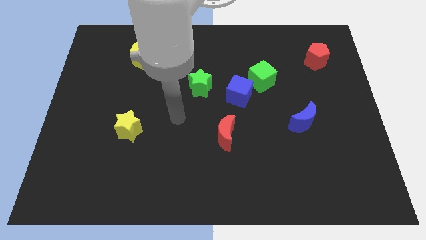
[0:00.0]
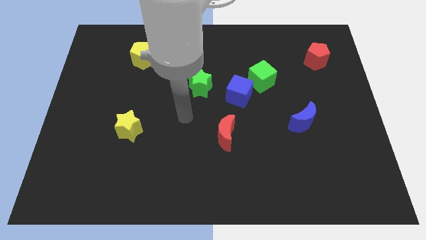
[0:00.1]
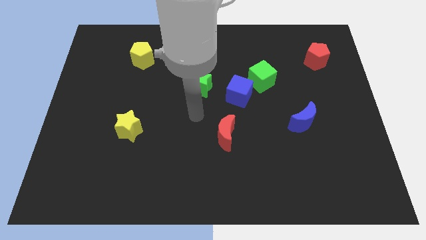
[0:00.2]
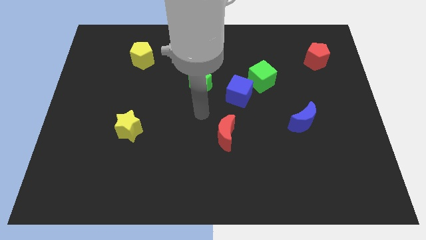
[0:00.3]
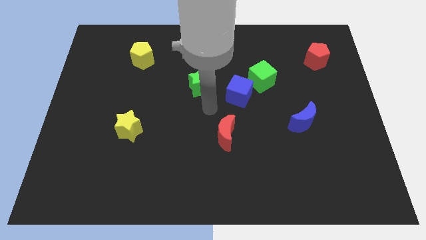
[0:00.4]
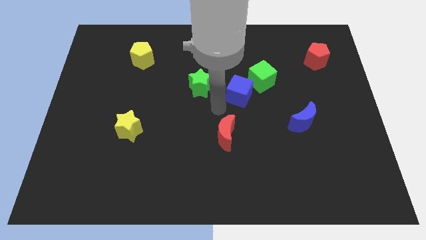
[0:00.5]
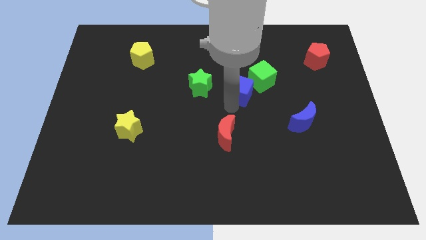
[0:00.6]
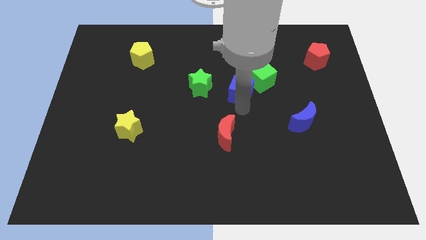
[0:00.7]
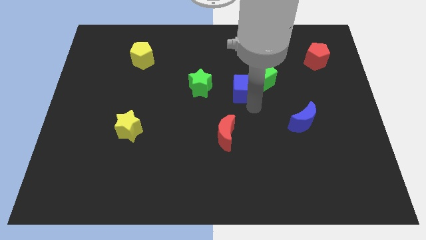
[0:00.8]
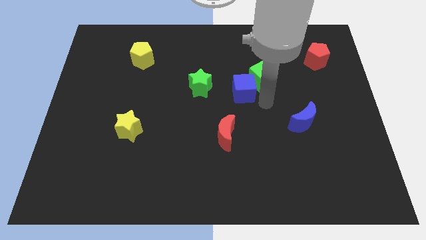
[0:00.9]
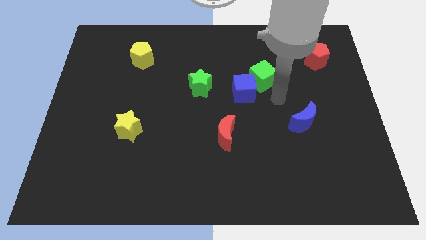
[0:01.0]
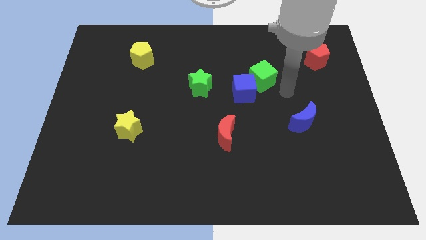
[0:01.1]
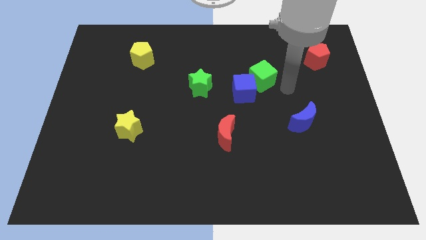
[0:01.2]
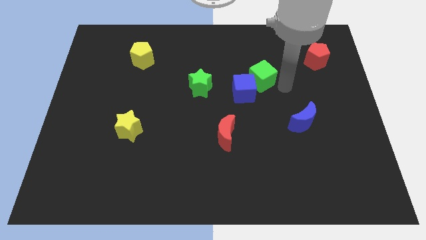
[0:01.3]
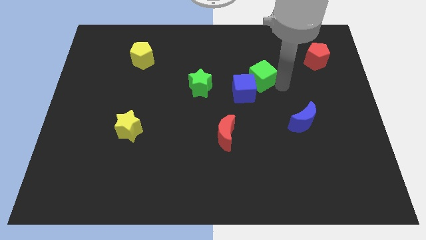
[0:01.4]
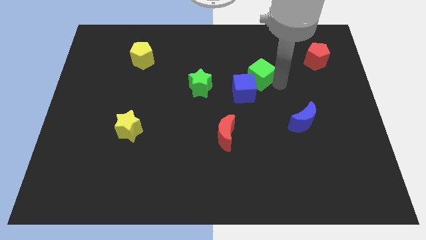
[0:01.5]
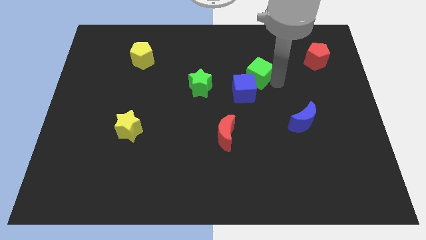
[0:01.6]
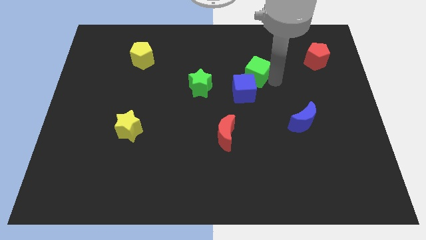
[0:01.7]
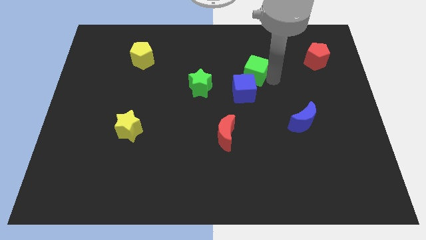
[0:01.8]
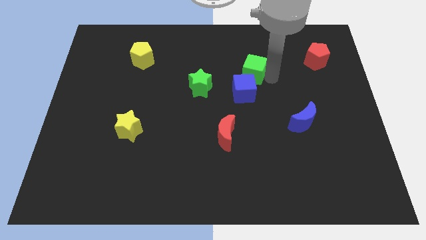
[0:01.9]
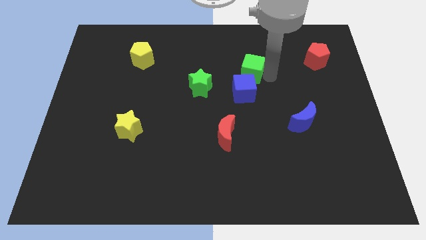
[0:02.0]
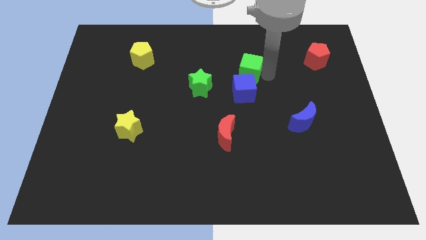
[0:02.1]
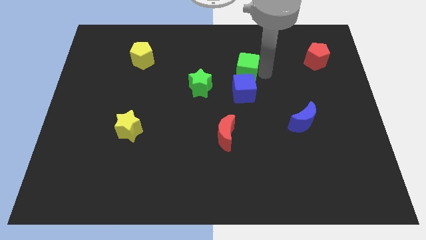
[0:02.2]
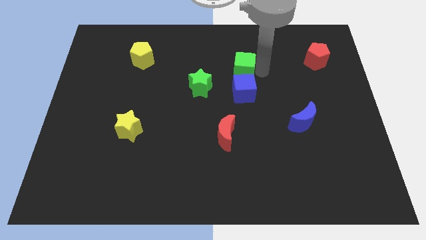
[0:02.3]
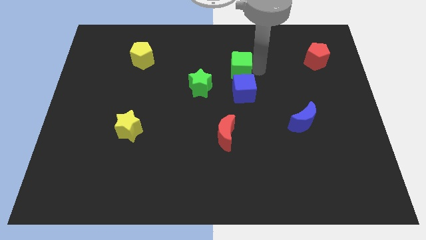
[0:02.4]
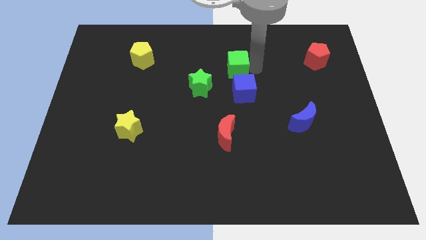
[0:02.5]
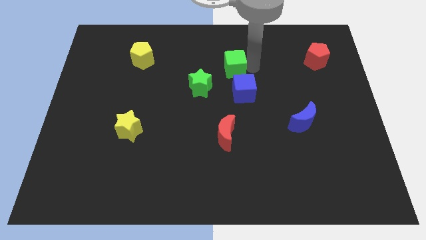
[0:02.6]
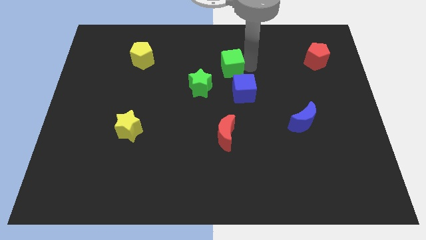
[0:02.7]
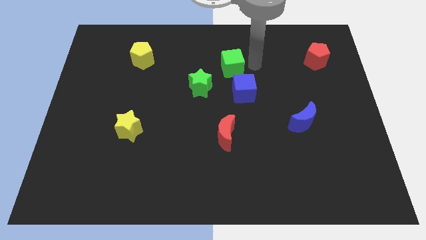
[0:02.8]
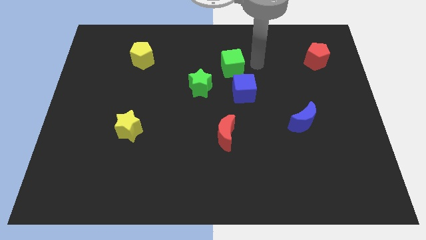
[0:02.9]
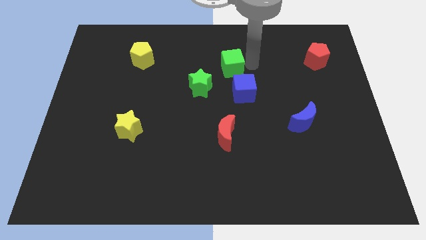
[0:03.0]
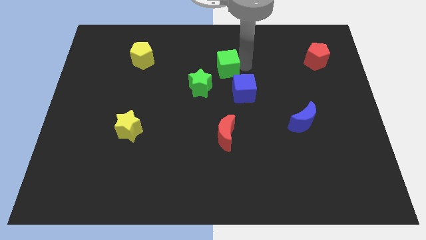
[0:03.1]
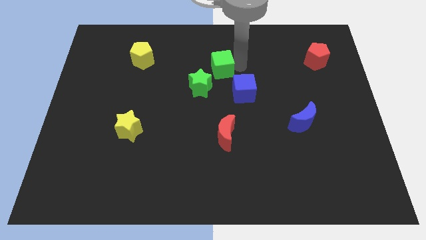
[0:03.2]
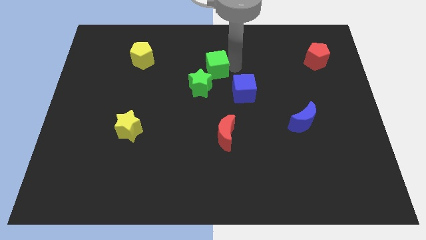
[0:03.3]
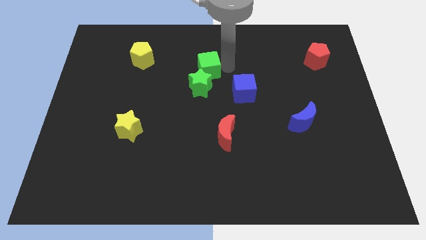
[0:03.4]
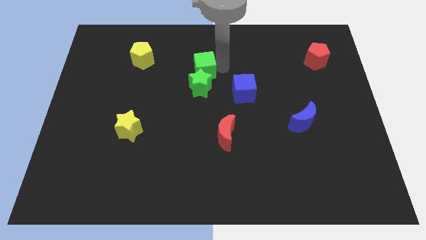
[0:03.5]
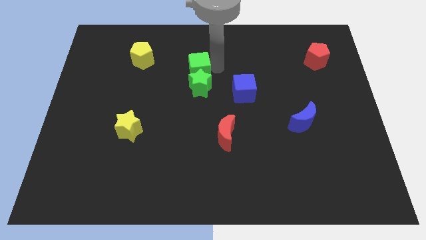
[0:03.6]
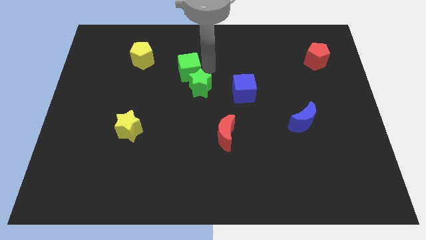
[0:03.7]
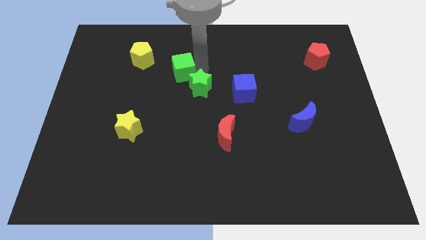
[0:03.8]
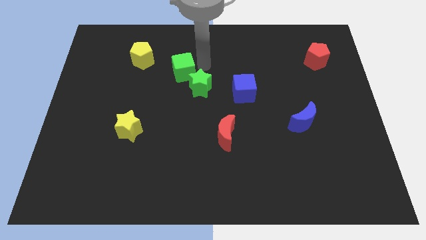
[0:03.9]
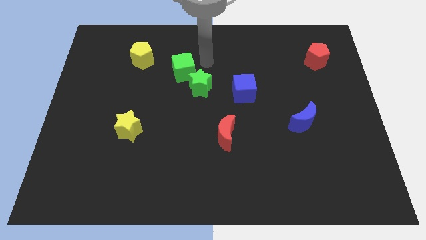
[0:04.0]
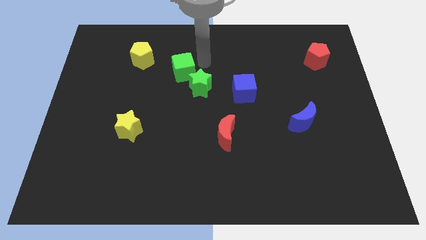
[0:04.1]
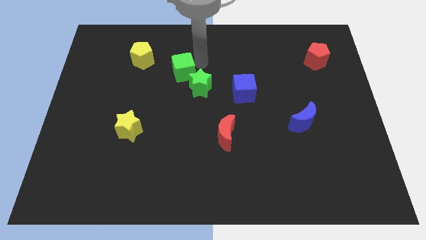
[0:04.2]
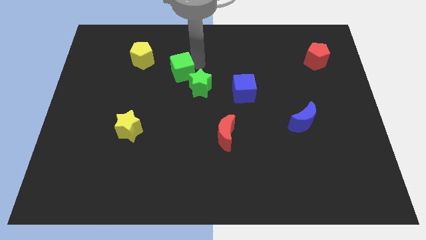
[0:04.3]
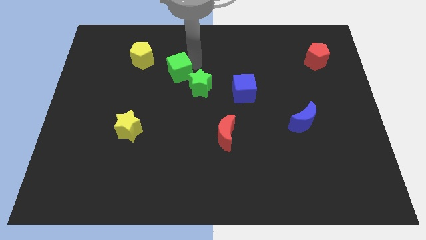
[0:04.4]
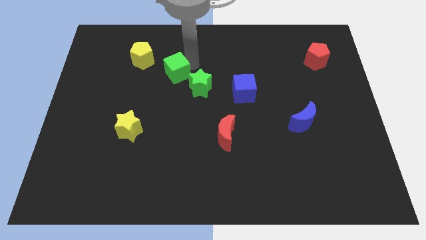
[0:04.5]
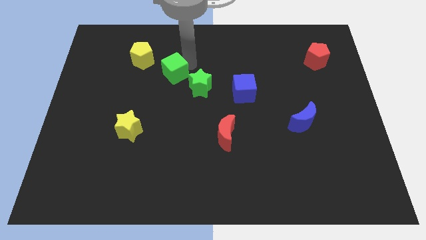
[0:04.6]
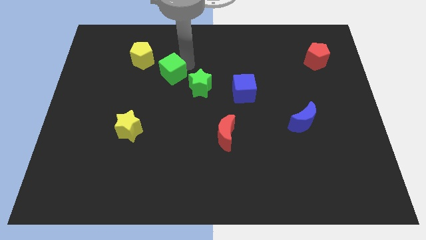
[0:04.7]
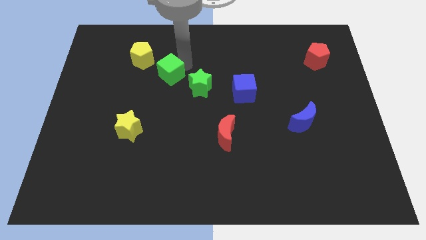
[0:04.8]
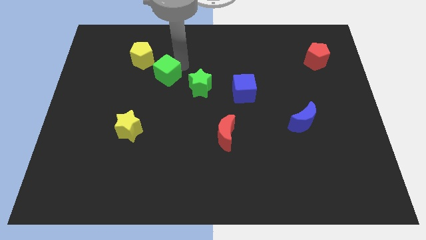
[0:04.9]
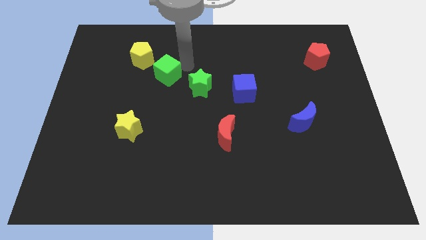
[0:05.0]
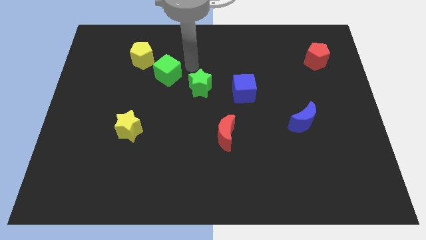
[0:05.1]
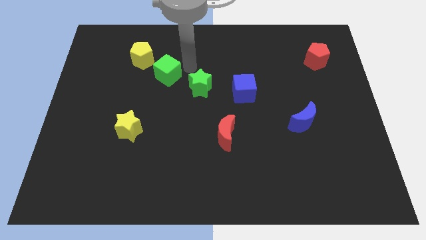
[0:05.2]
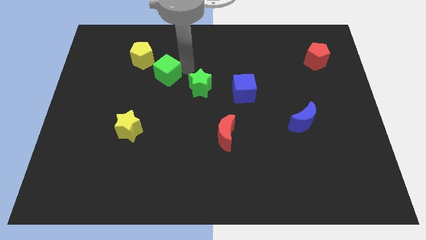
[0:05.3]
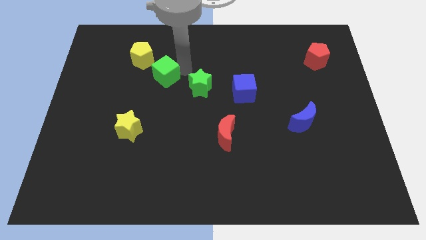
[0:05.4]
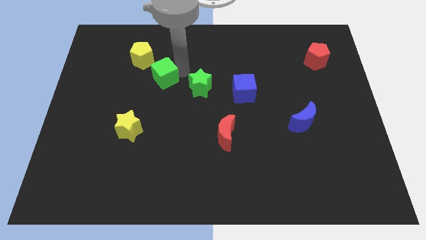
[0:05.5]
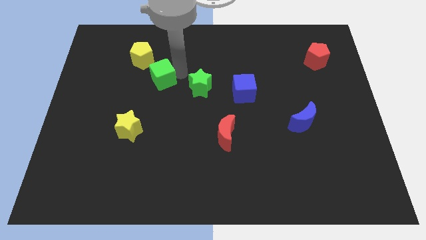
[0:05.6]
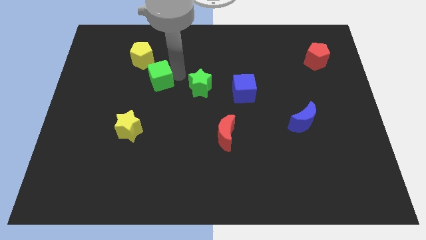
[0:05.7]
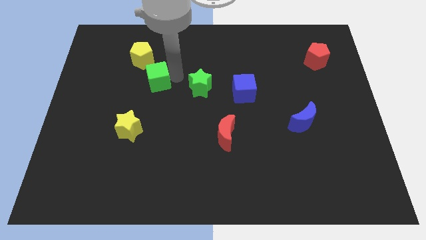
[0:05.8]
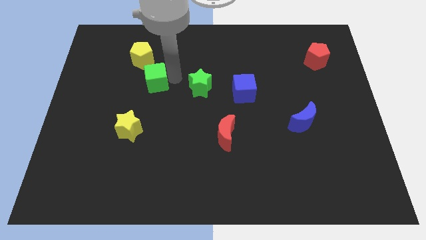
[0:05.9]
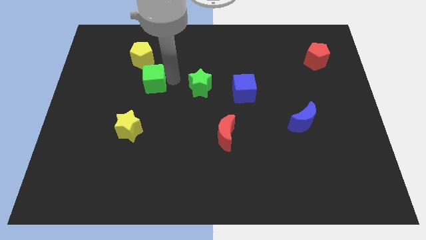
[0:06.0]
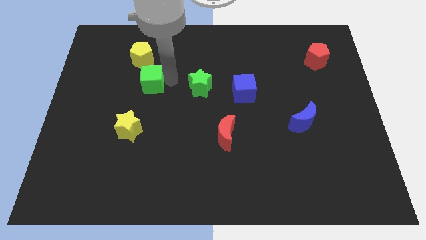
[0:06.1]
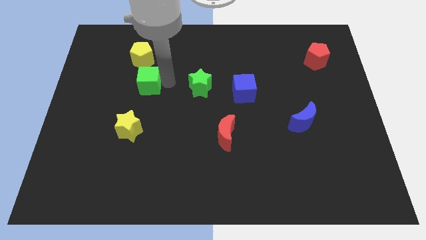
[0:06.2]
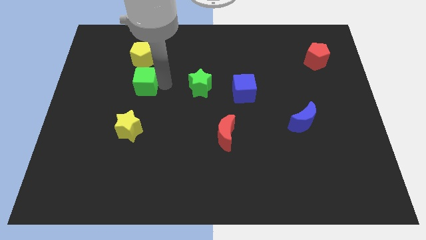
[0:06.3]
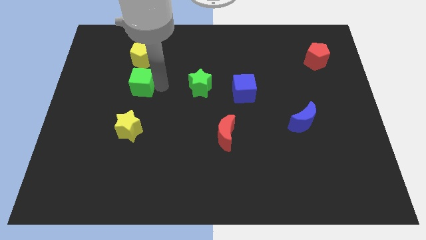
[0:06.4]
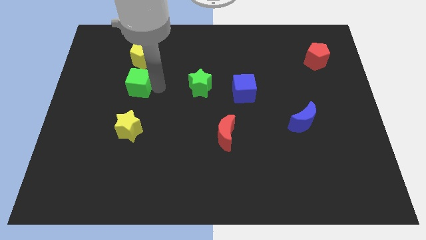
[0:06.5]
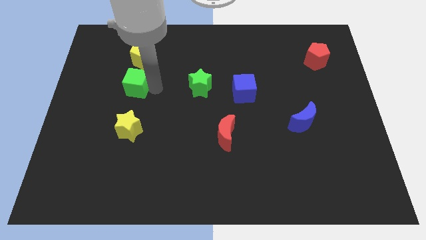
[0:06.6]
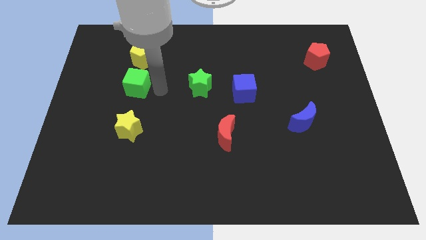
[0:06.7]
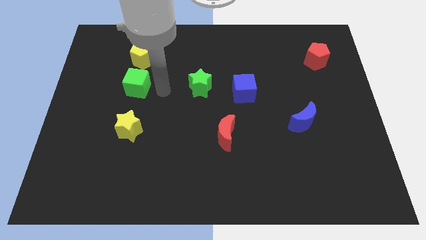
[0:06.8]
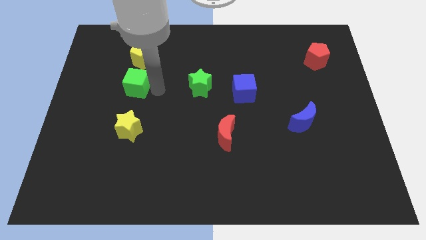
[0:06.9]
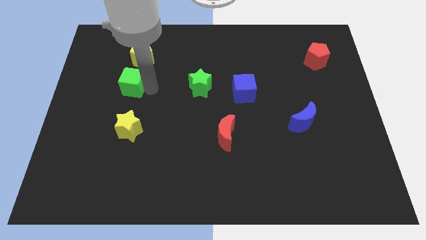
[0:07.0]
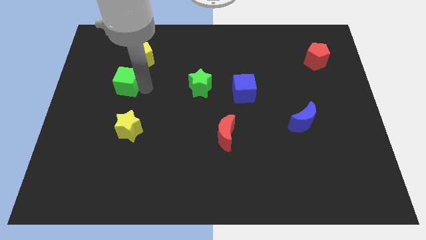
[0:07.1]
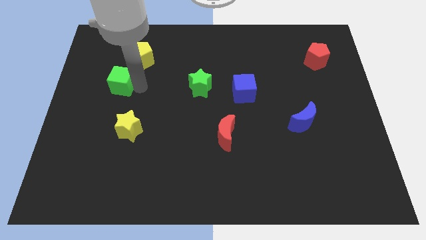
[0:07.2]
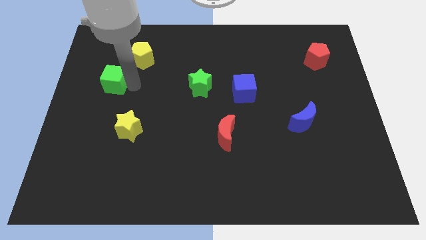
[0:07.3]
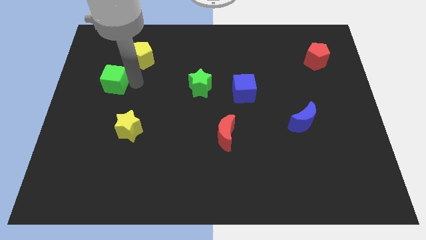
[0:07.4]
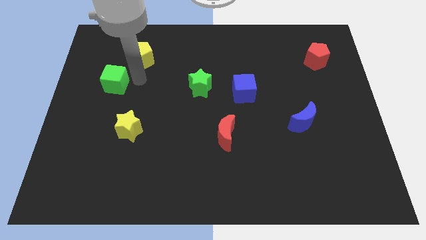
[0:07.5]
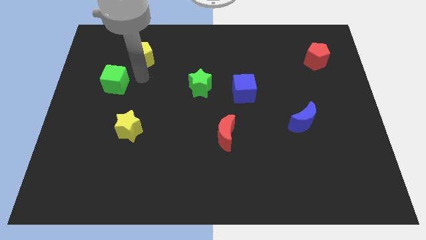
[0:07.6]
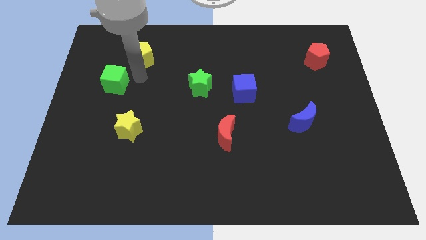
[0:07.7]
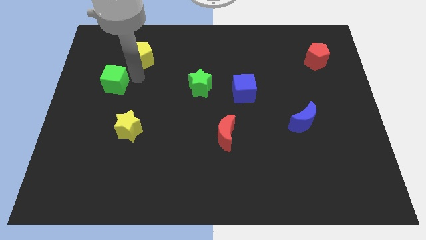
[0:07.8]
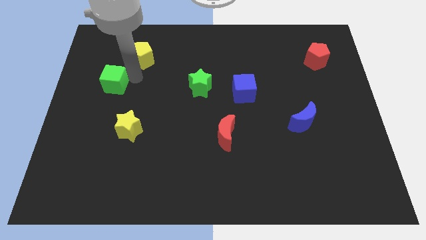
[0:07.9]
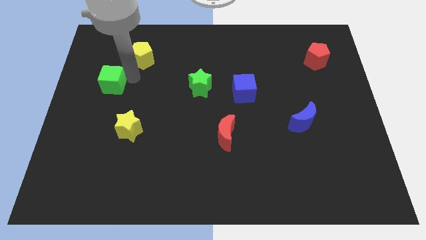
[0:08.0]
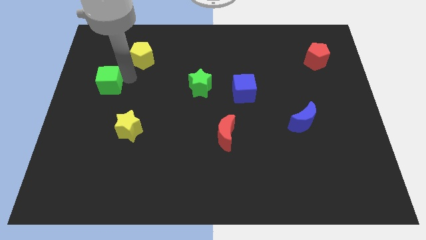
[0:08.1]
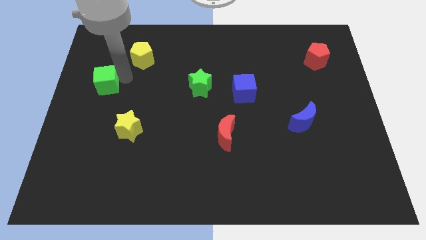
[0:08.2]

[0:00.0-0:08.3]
slide the green cube to the center left
